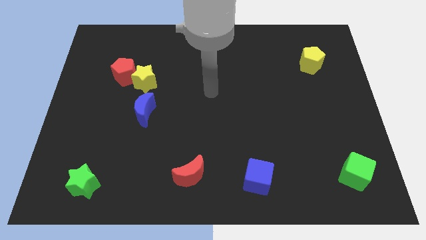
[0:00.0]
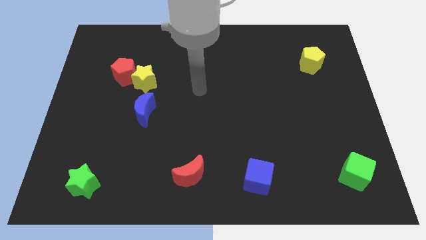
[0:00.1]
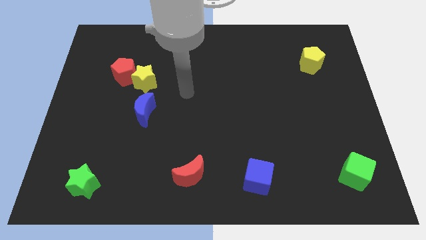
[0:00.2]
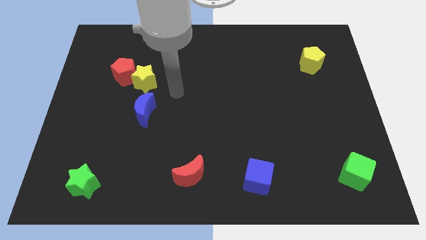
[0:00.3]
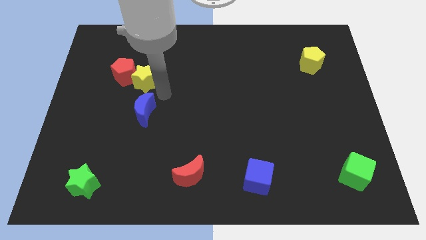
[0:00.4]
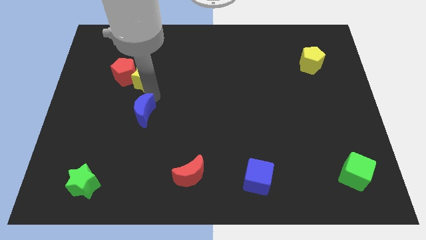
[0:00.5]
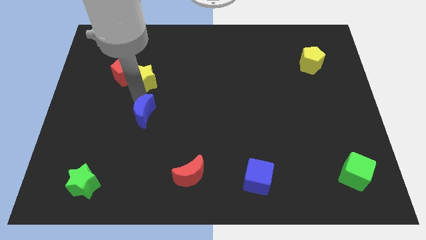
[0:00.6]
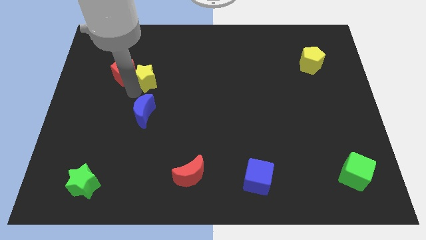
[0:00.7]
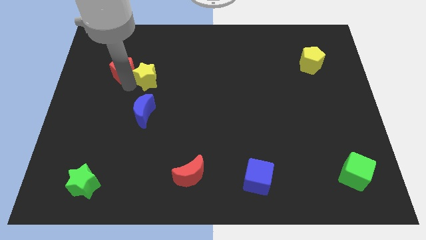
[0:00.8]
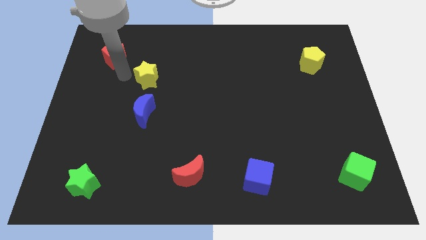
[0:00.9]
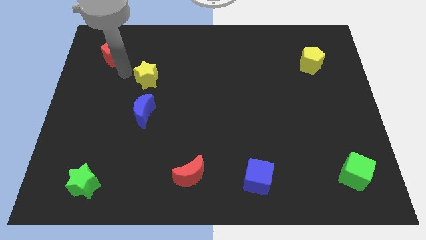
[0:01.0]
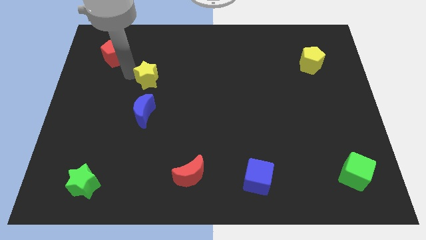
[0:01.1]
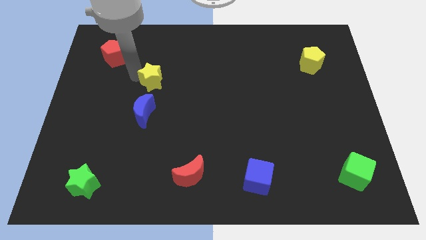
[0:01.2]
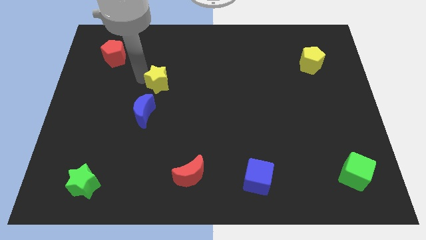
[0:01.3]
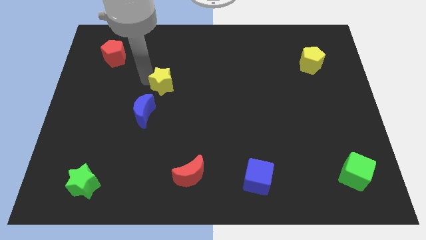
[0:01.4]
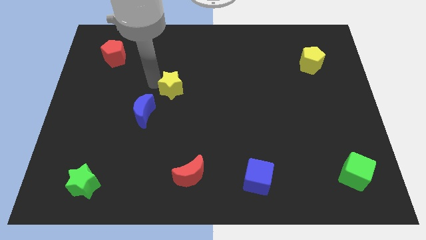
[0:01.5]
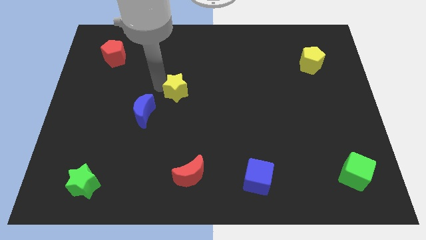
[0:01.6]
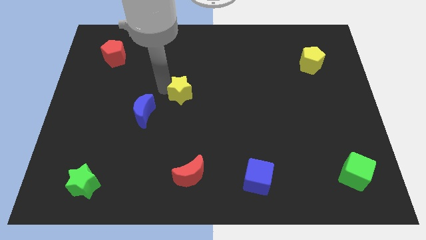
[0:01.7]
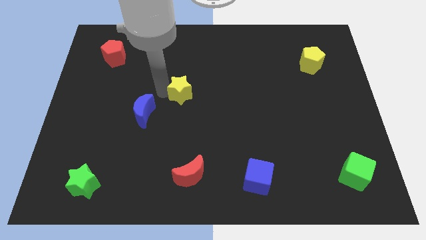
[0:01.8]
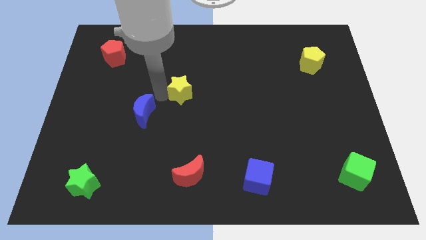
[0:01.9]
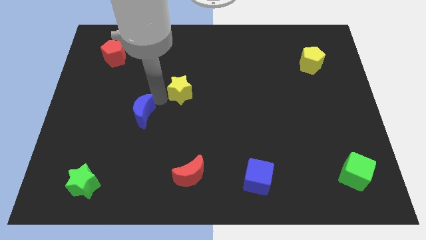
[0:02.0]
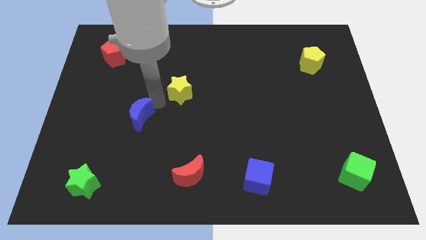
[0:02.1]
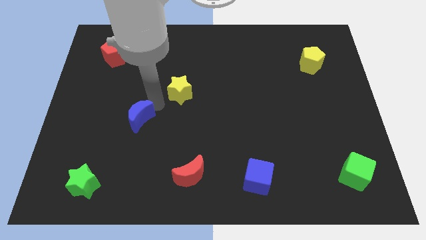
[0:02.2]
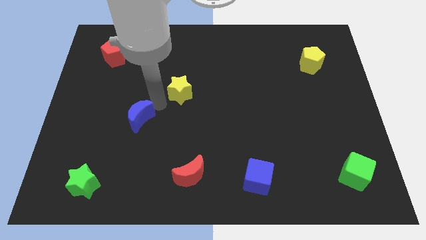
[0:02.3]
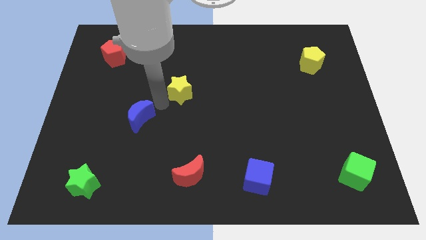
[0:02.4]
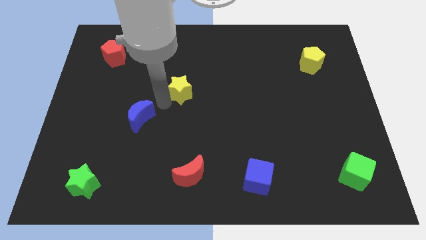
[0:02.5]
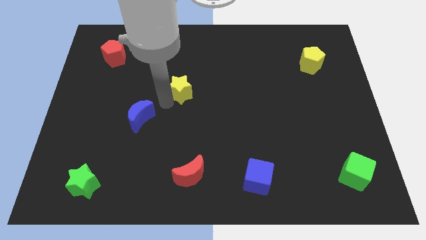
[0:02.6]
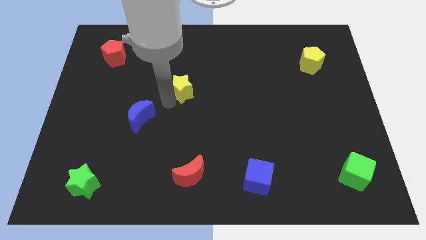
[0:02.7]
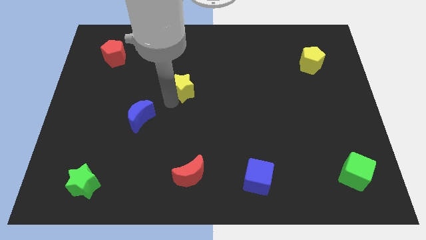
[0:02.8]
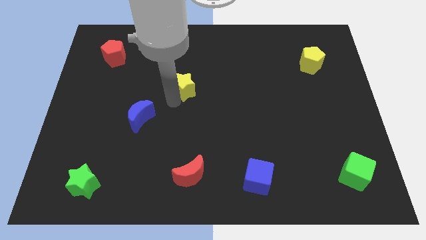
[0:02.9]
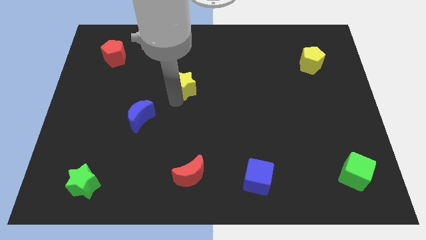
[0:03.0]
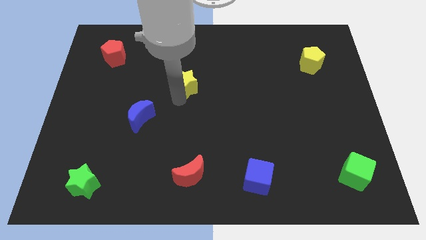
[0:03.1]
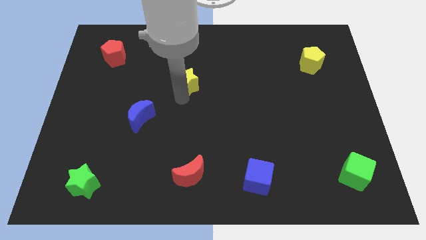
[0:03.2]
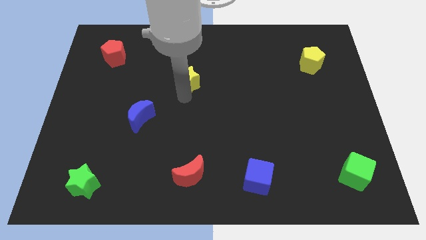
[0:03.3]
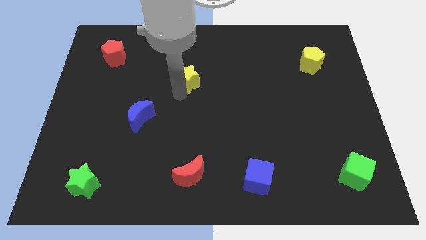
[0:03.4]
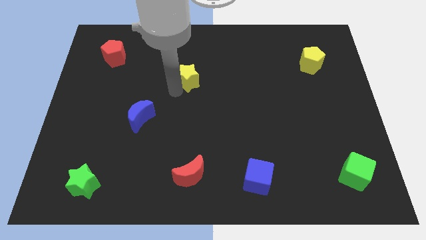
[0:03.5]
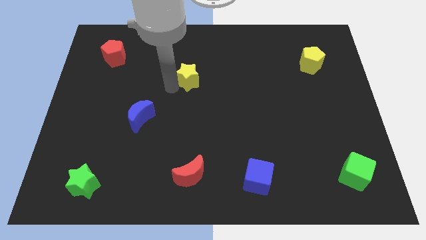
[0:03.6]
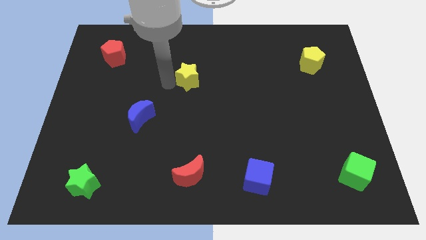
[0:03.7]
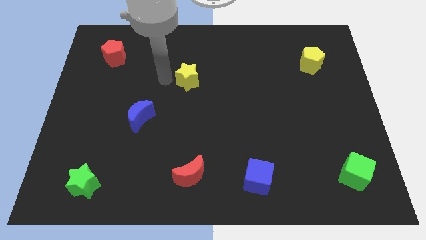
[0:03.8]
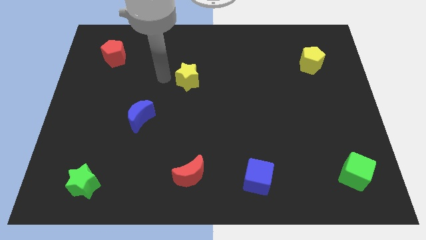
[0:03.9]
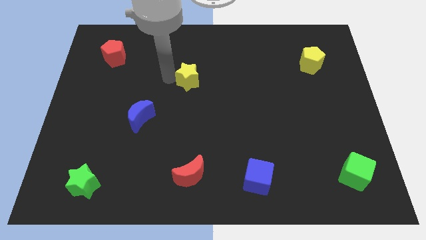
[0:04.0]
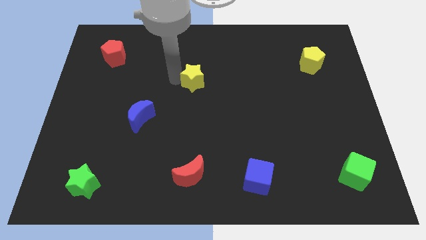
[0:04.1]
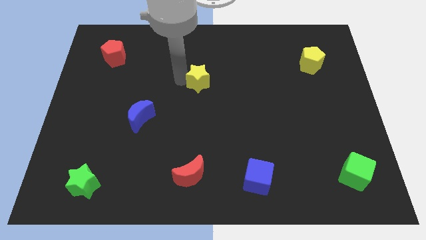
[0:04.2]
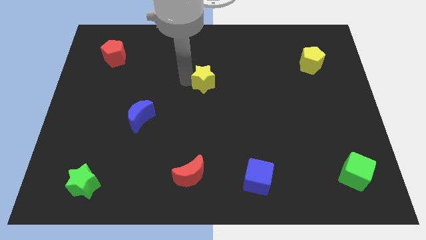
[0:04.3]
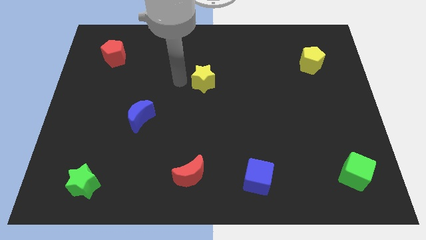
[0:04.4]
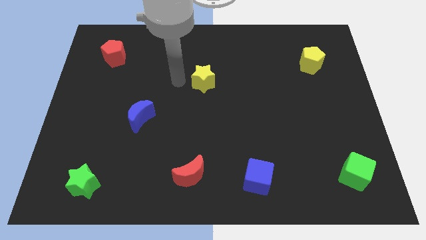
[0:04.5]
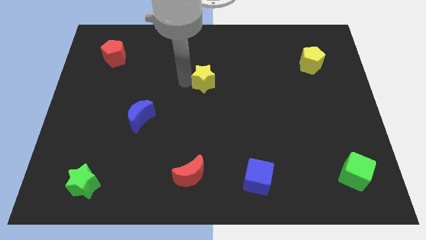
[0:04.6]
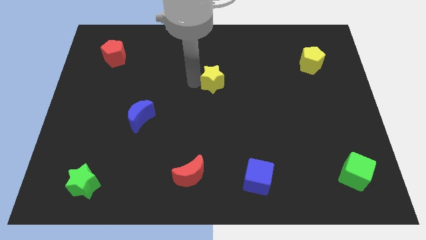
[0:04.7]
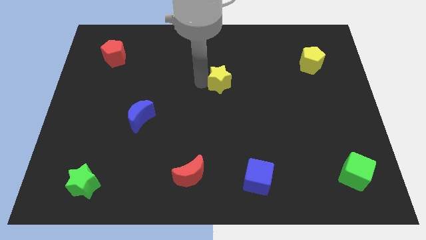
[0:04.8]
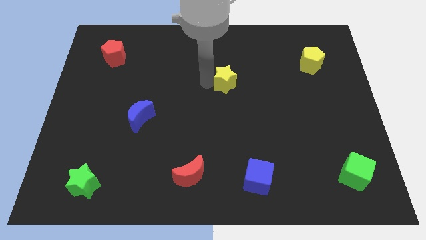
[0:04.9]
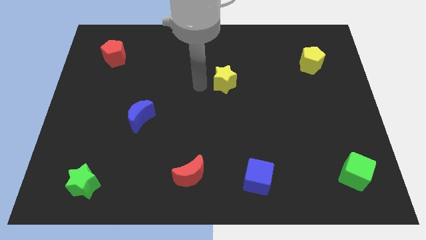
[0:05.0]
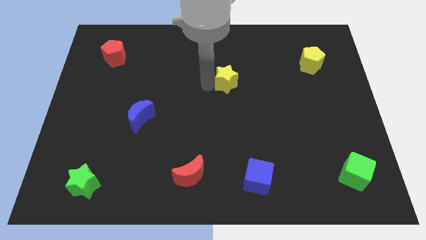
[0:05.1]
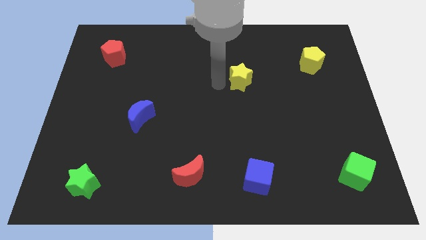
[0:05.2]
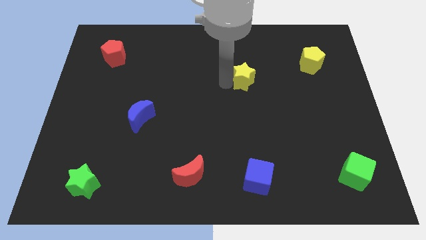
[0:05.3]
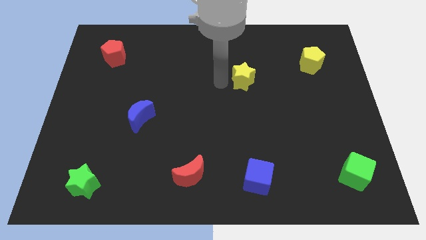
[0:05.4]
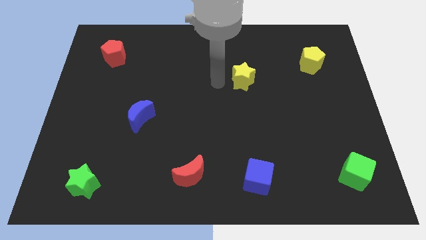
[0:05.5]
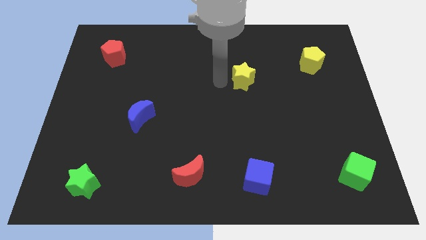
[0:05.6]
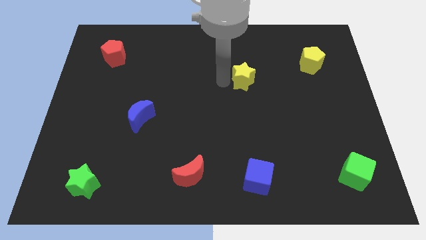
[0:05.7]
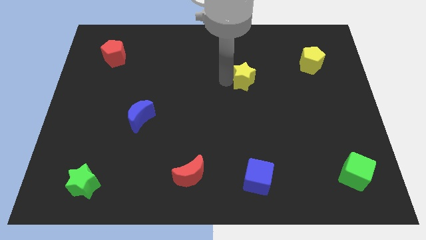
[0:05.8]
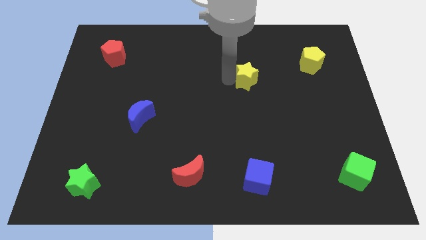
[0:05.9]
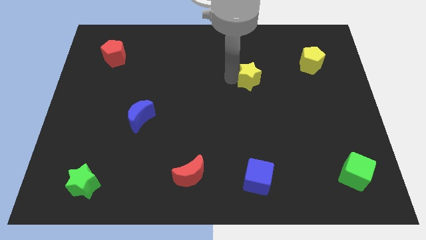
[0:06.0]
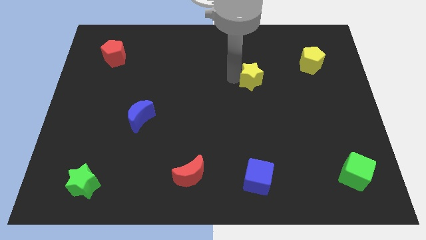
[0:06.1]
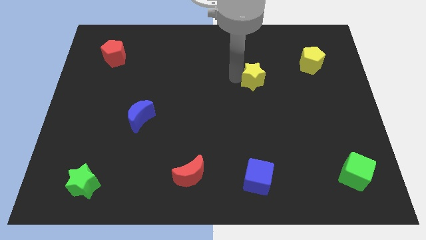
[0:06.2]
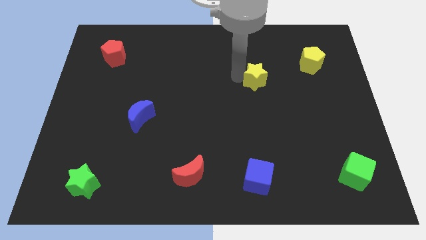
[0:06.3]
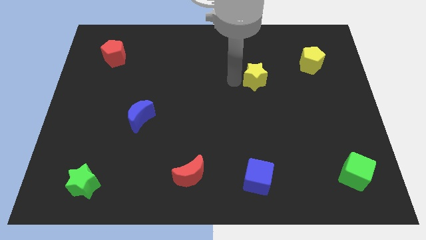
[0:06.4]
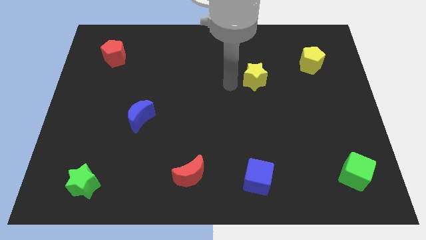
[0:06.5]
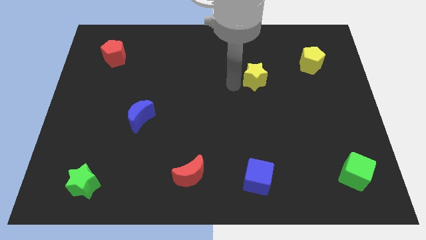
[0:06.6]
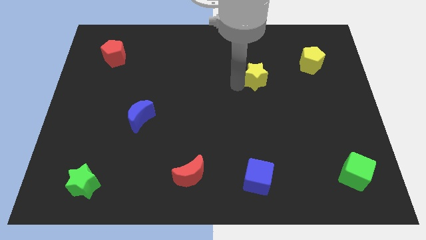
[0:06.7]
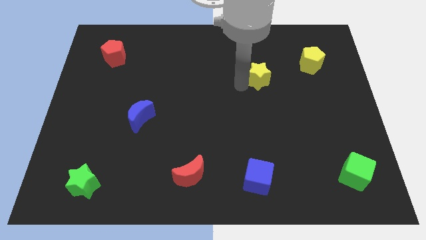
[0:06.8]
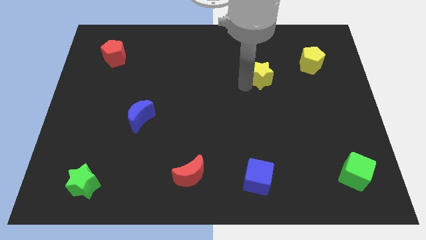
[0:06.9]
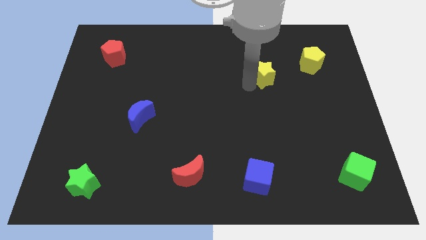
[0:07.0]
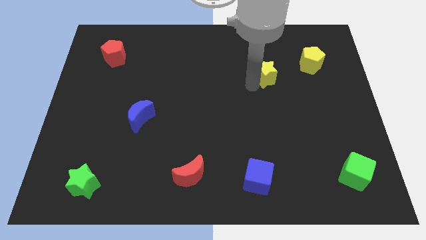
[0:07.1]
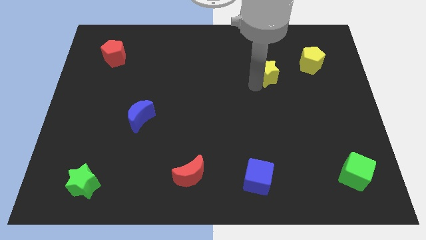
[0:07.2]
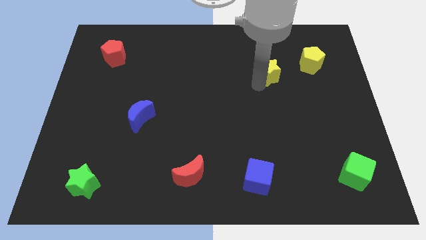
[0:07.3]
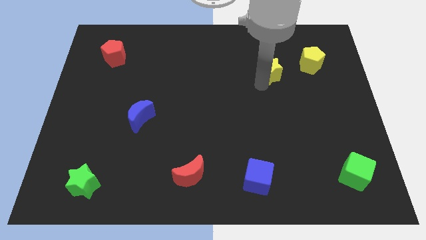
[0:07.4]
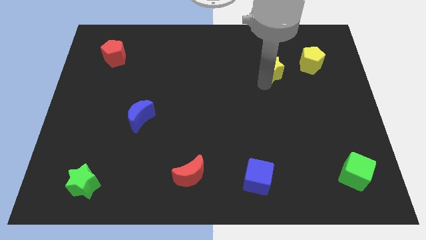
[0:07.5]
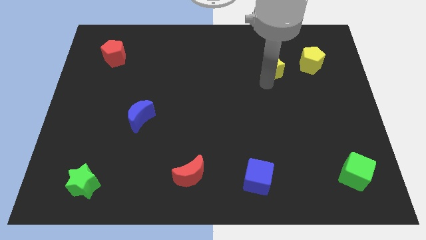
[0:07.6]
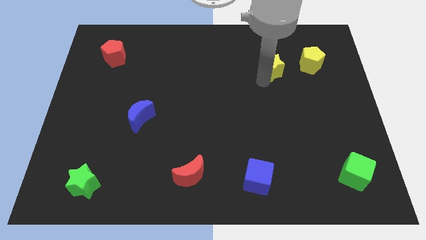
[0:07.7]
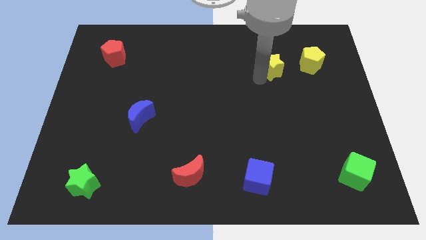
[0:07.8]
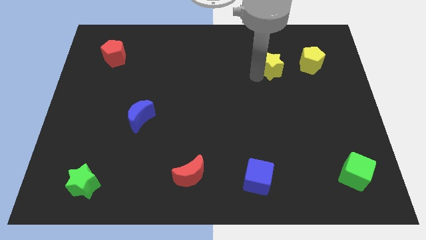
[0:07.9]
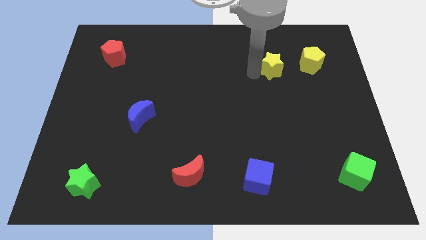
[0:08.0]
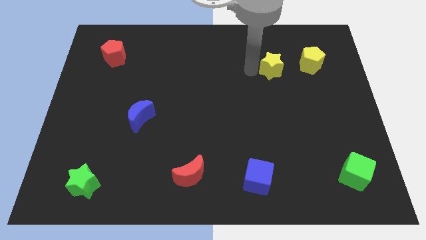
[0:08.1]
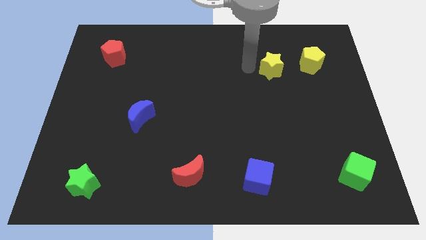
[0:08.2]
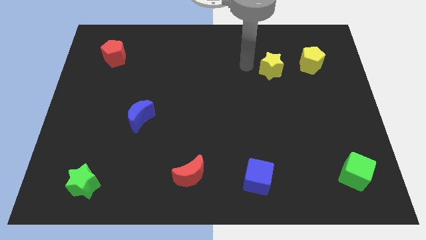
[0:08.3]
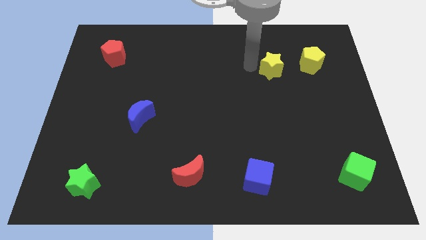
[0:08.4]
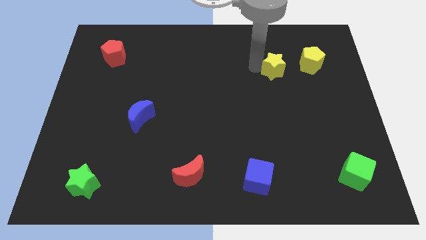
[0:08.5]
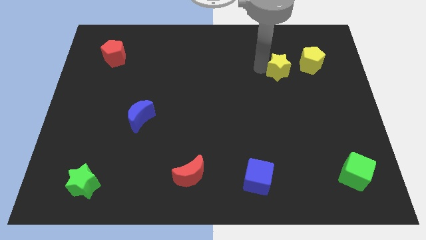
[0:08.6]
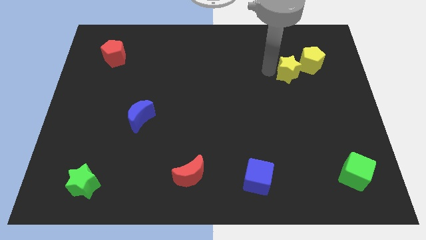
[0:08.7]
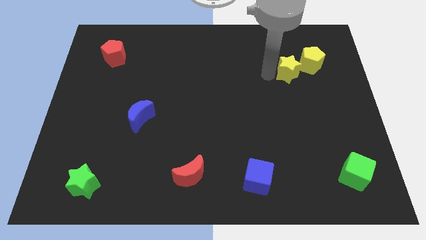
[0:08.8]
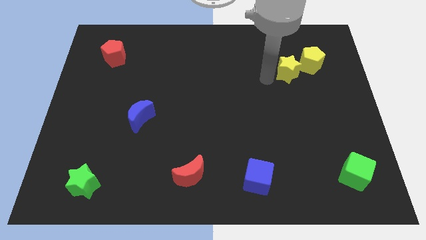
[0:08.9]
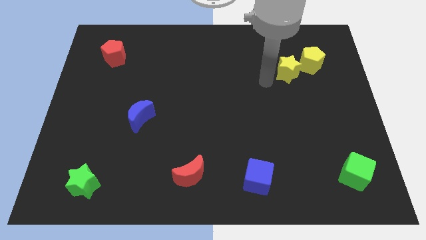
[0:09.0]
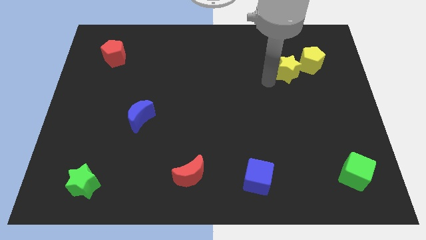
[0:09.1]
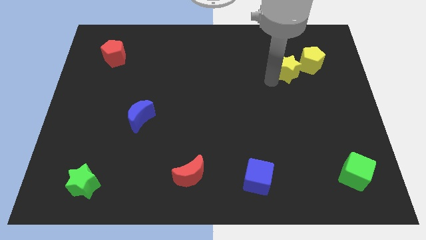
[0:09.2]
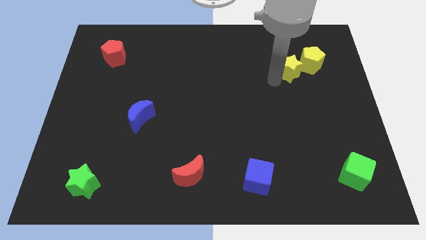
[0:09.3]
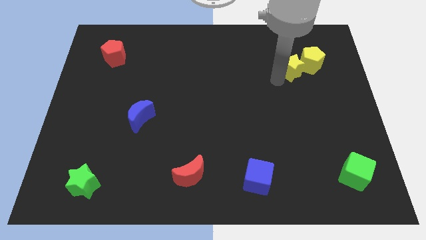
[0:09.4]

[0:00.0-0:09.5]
push the yellow star towards the yellow pentagon
